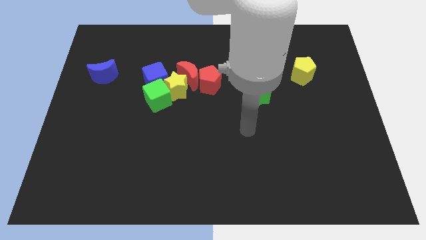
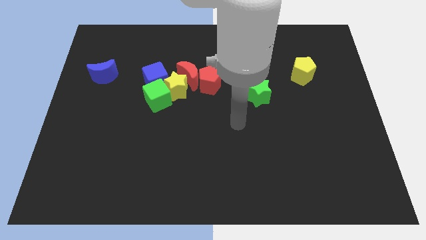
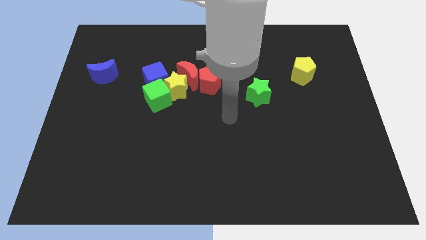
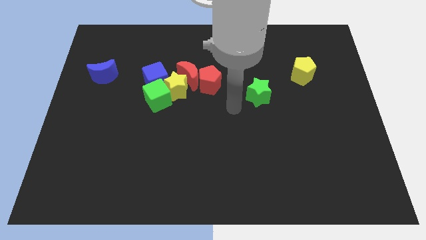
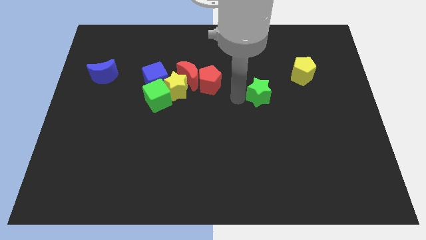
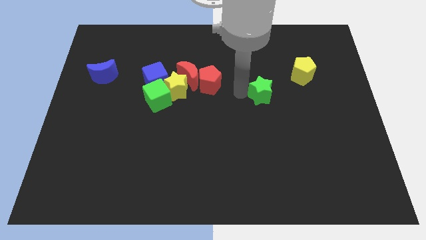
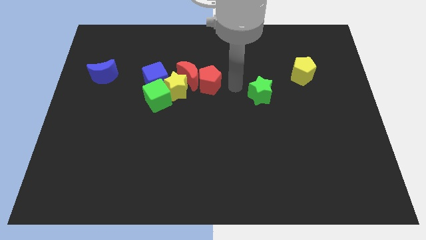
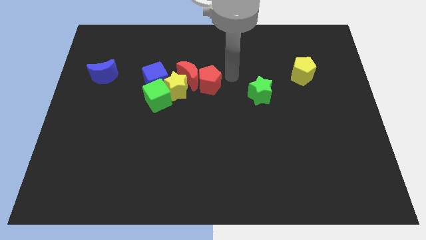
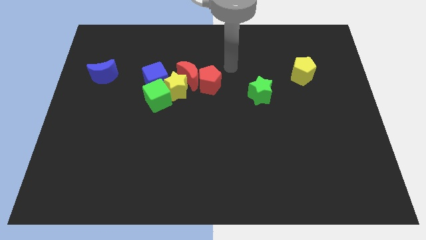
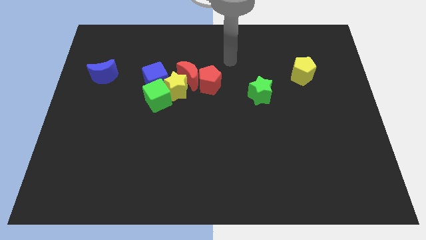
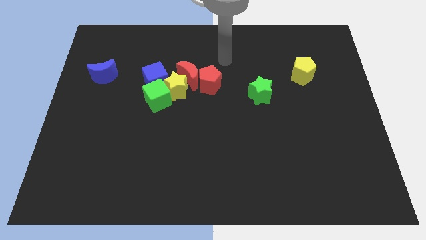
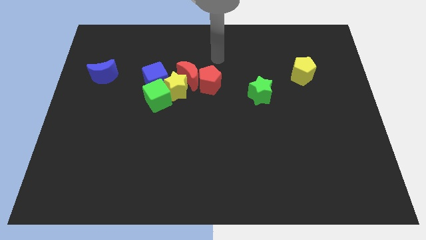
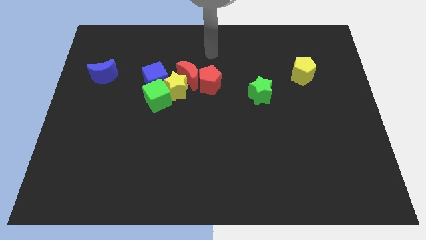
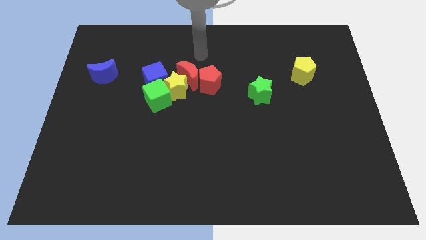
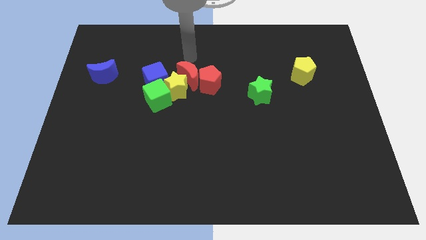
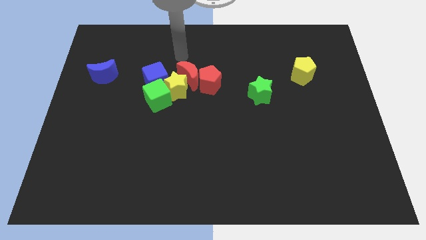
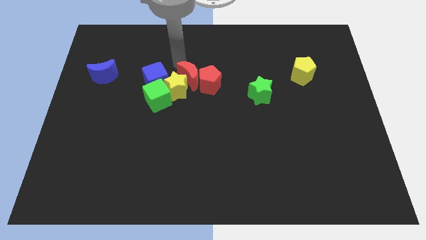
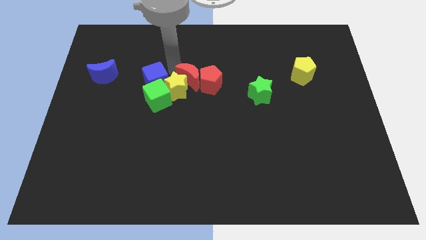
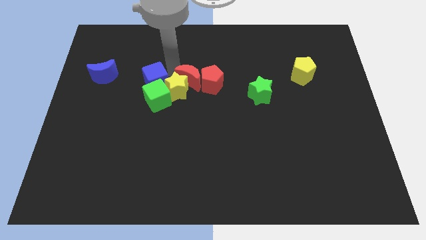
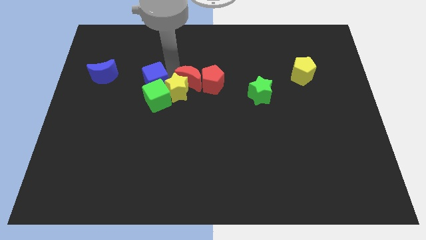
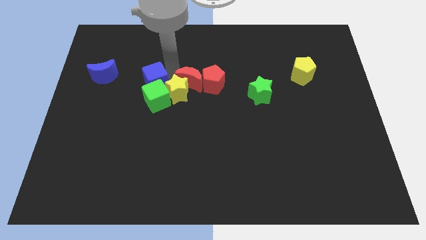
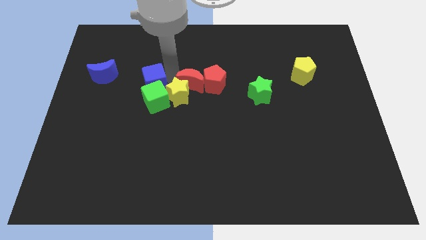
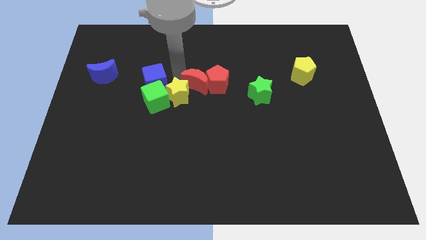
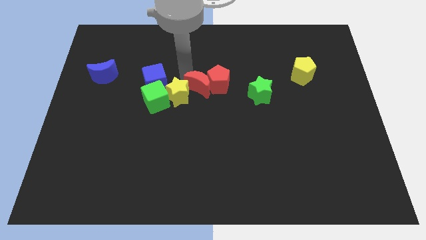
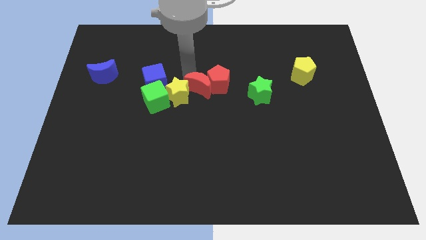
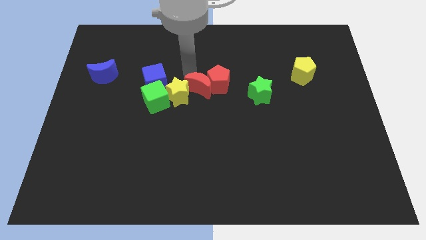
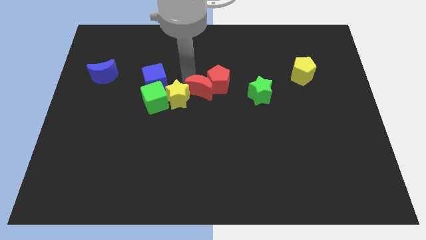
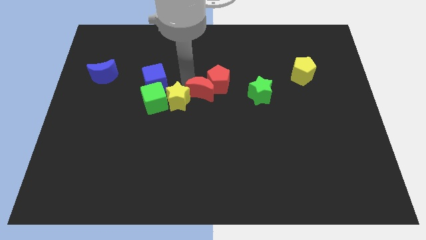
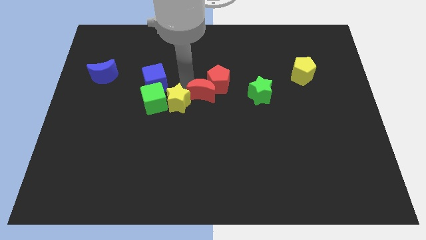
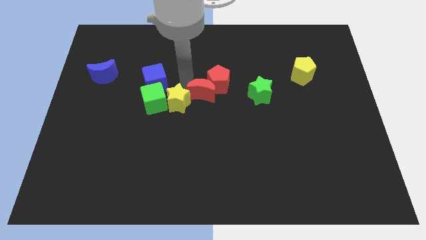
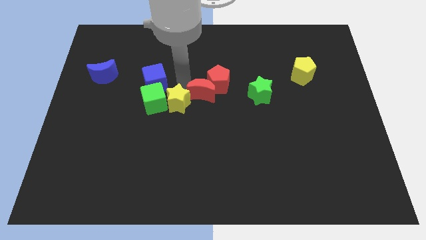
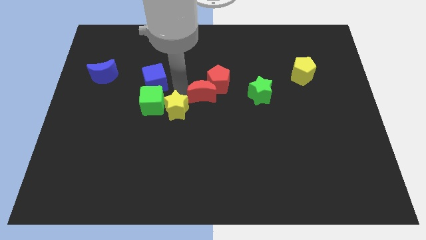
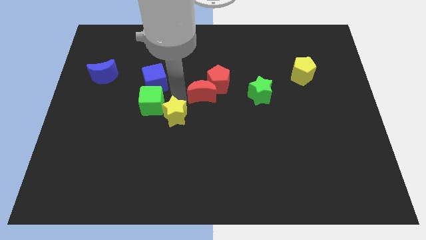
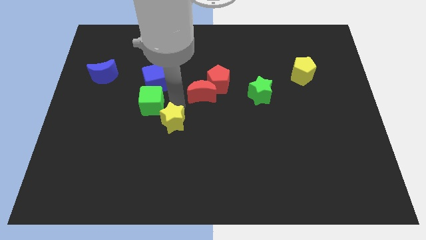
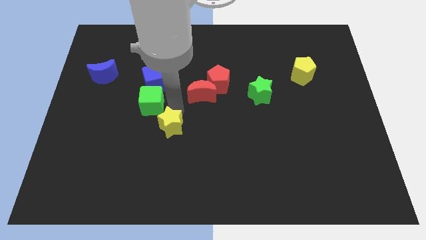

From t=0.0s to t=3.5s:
move the yellow star away from the clump

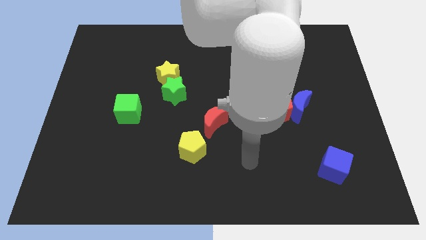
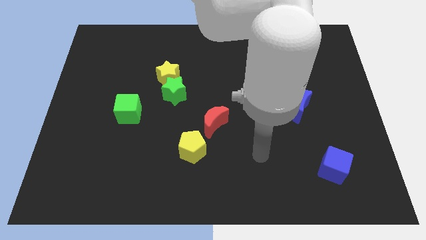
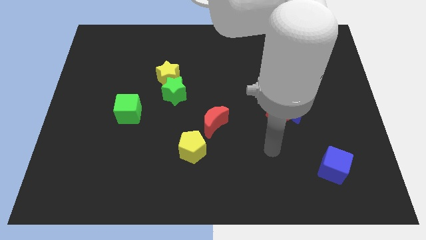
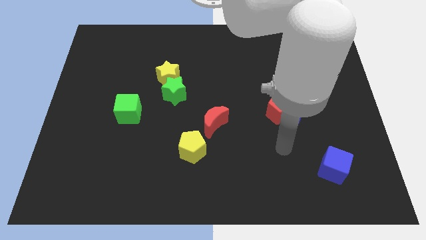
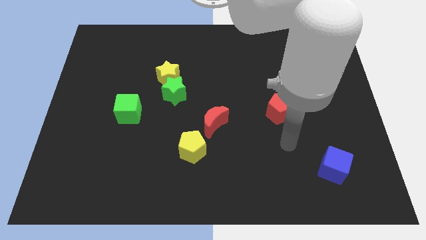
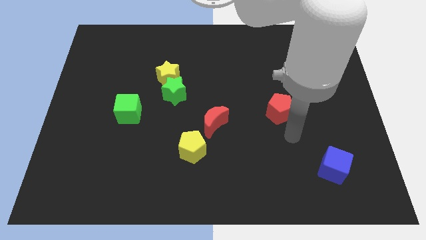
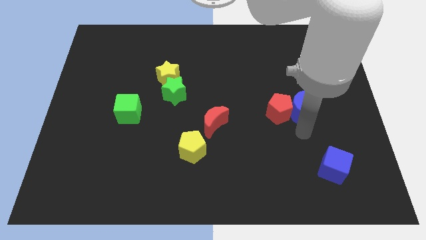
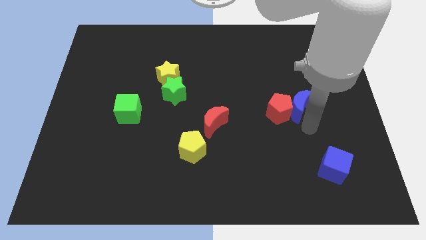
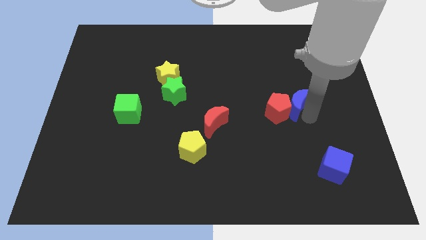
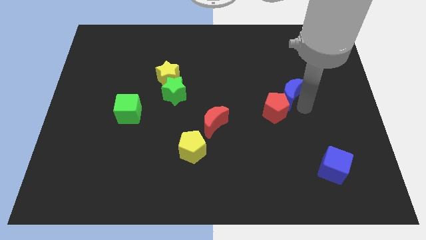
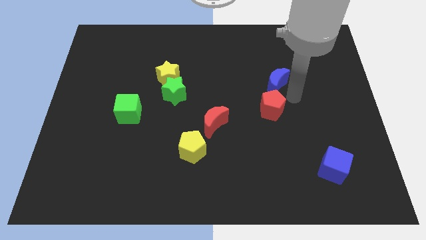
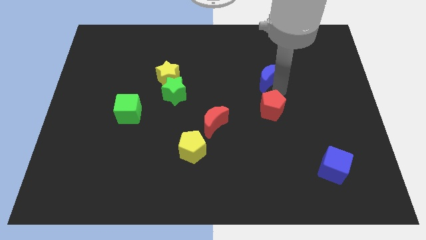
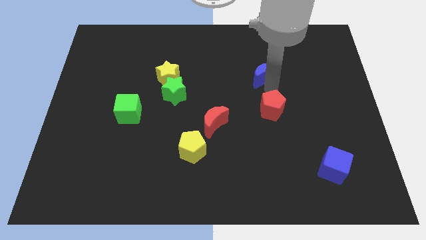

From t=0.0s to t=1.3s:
separate the red pentagon from the blue moon

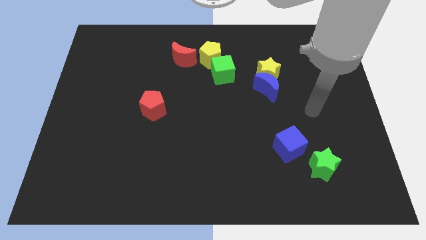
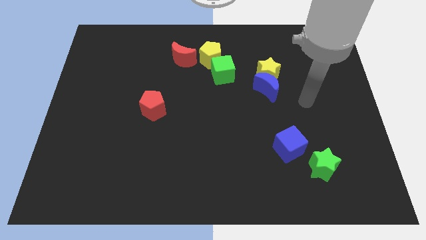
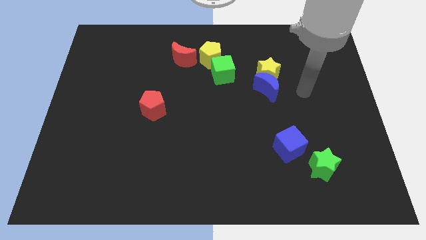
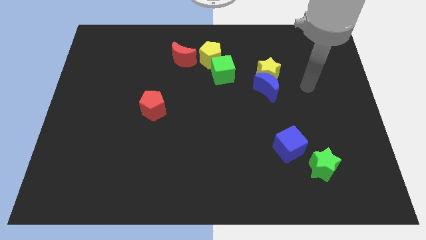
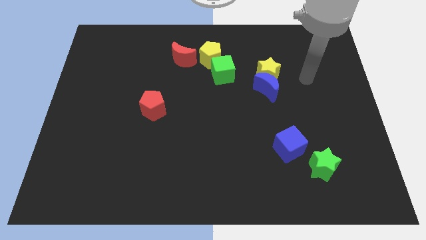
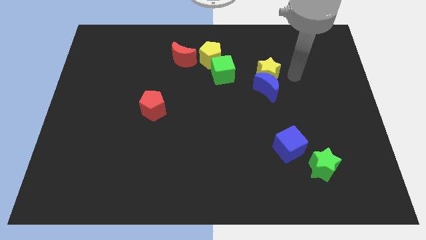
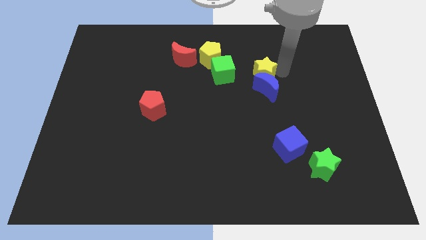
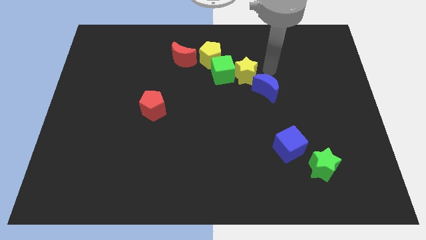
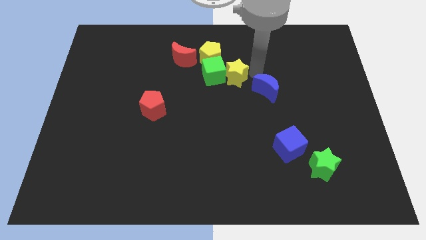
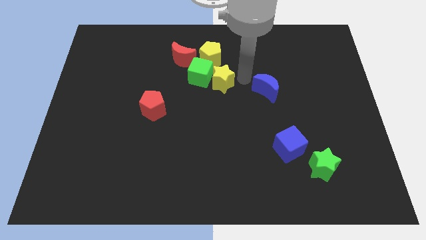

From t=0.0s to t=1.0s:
separate the blue moon from the yellow star

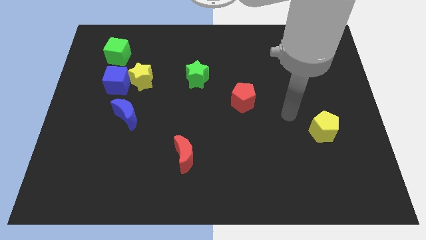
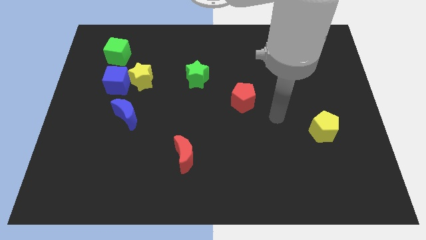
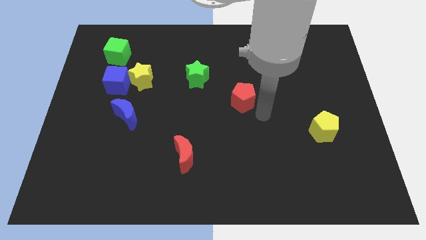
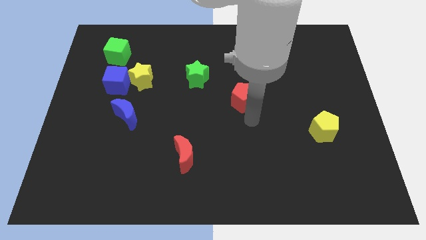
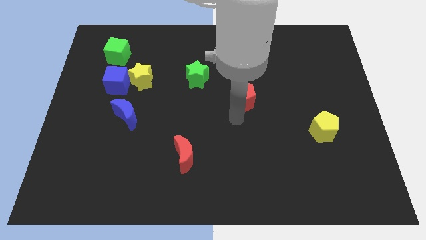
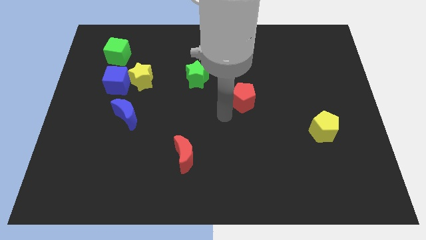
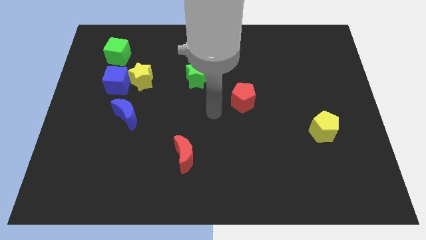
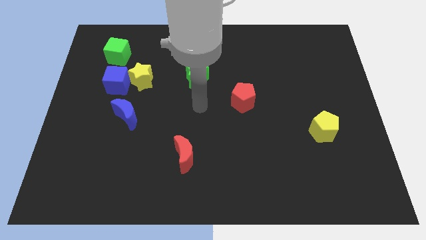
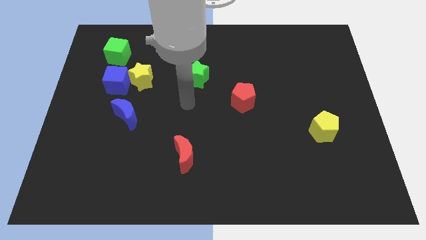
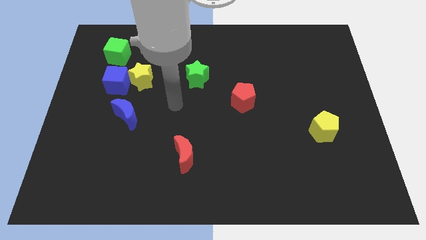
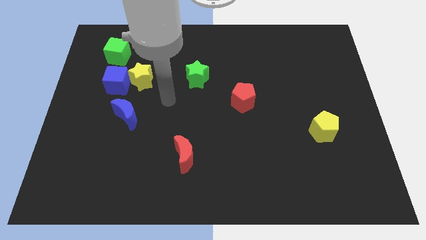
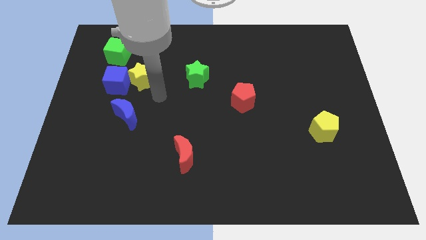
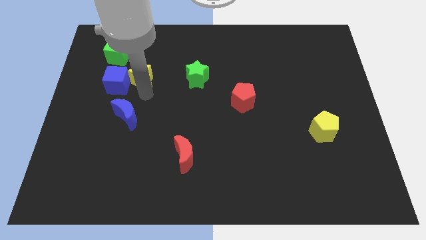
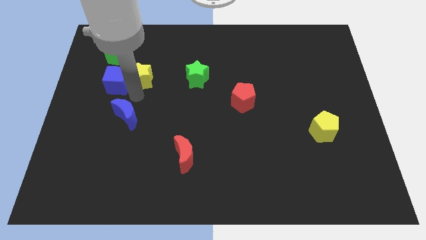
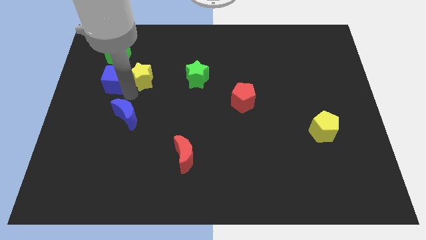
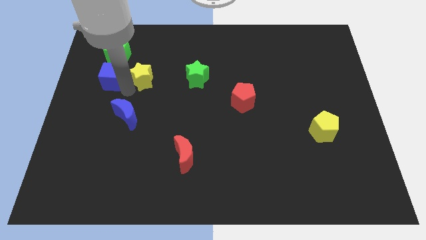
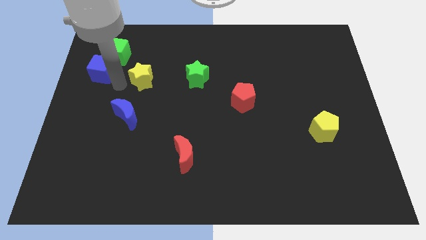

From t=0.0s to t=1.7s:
move the yellow star away from the blue cube

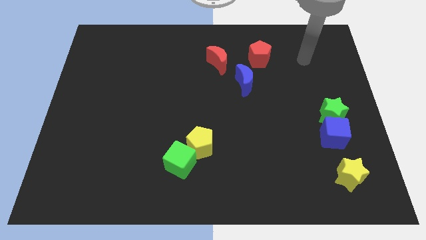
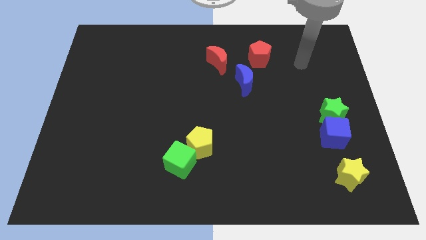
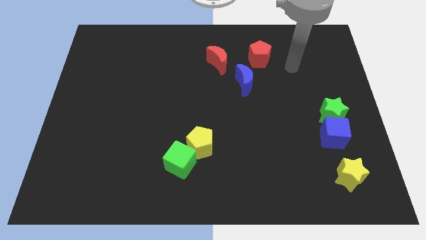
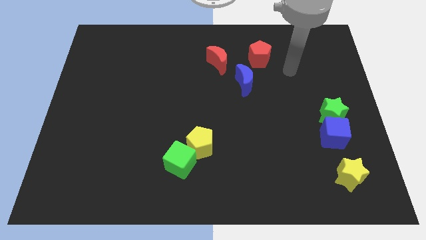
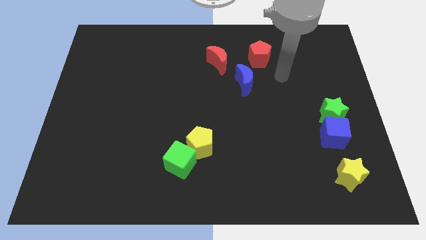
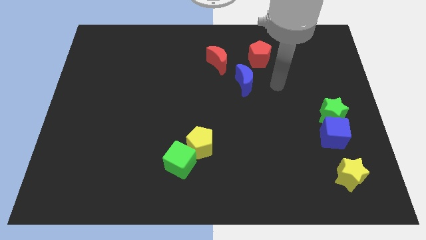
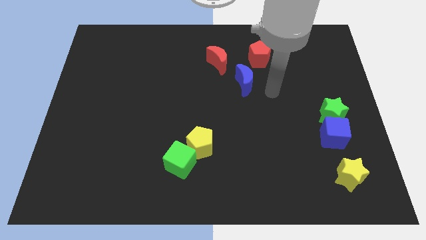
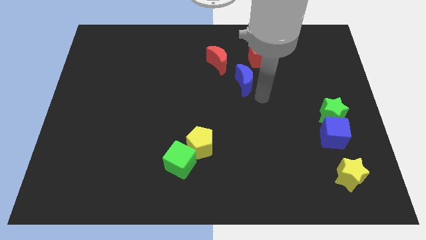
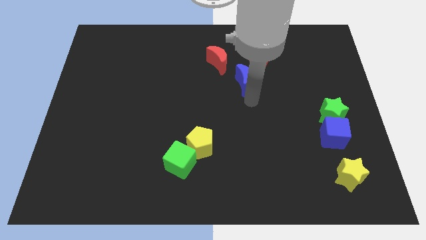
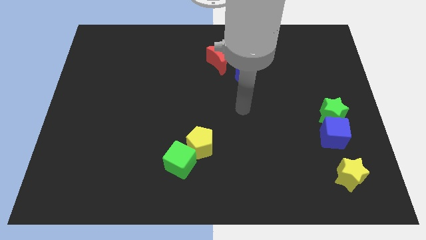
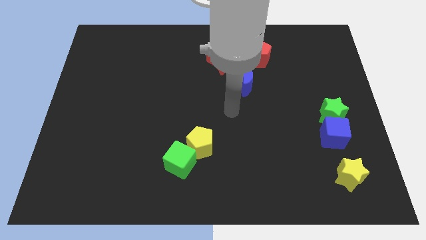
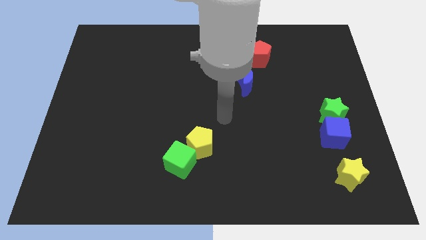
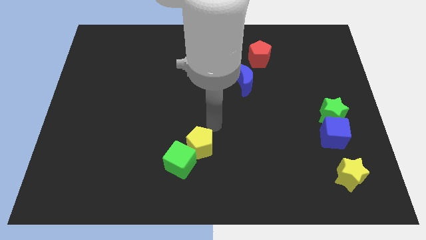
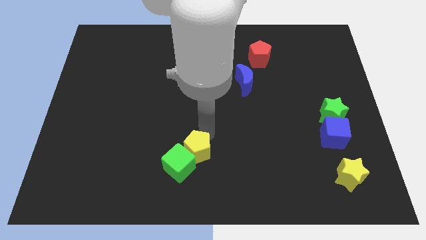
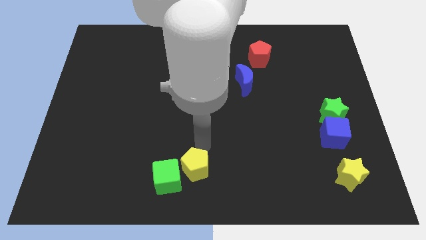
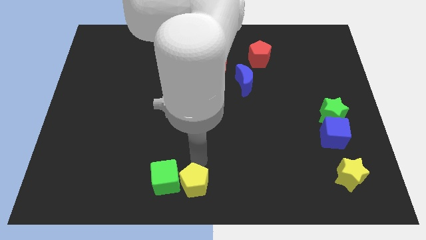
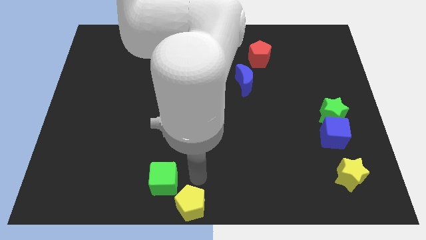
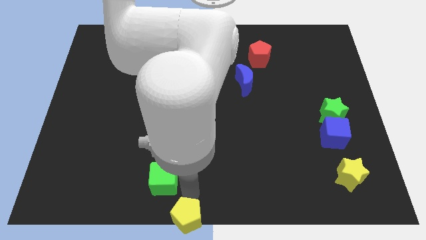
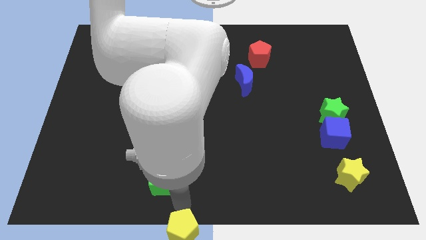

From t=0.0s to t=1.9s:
pull the green cube apart from the yellow pentagon
